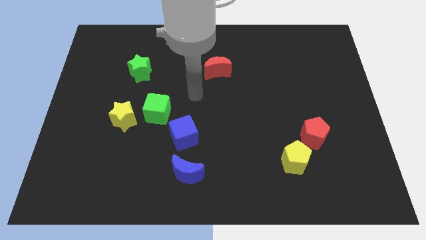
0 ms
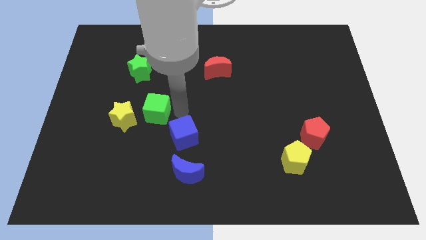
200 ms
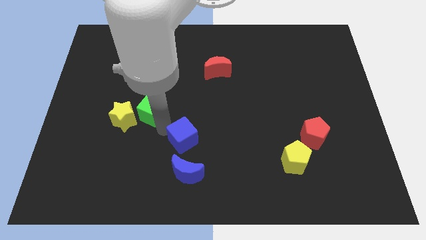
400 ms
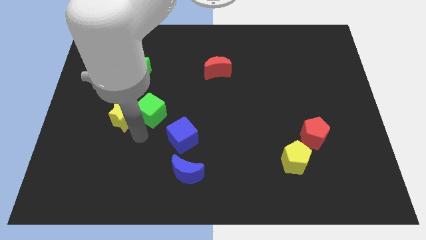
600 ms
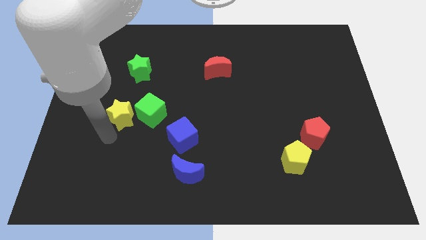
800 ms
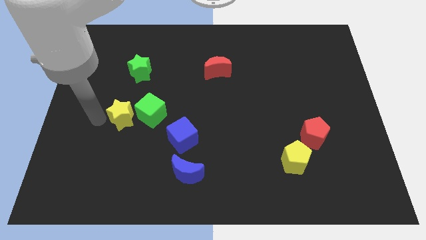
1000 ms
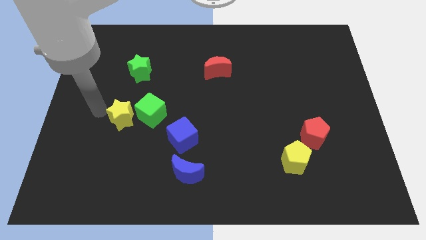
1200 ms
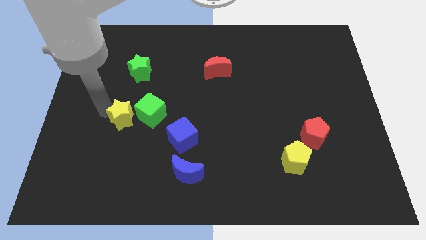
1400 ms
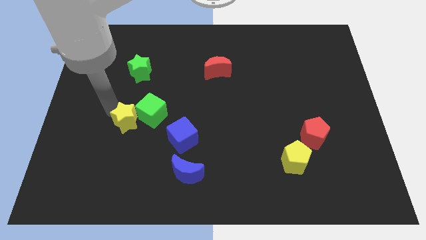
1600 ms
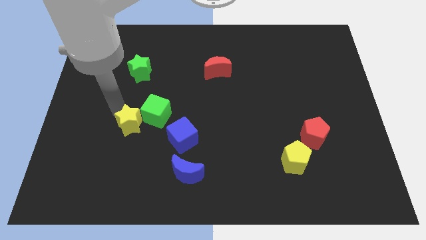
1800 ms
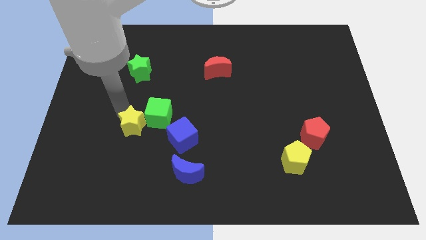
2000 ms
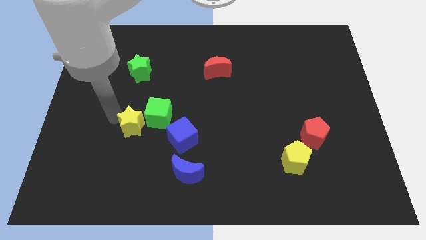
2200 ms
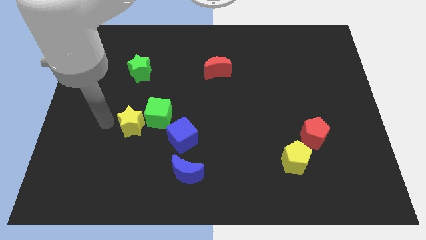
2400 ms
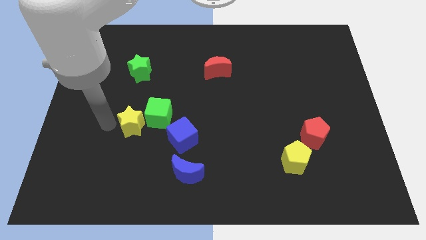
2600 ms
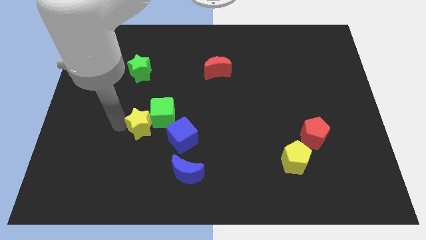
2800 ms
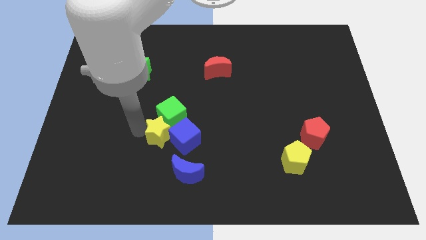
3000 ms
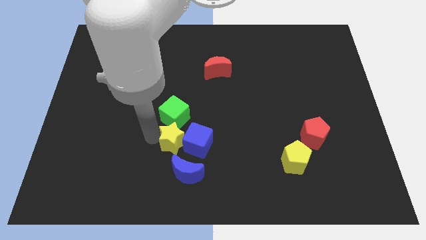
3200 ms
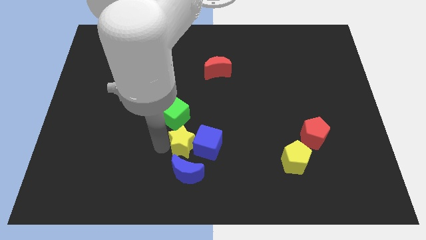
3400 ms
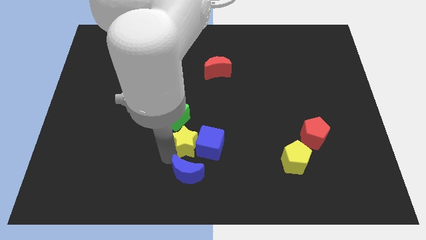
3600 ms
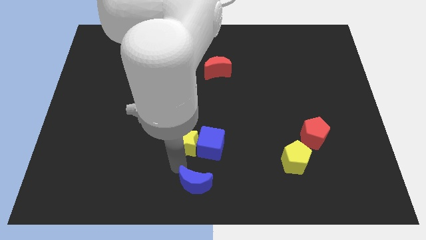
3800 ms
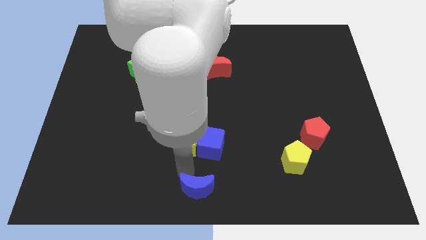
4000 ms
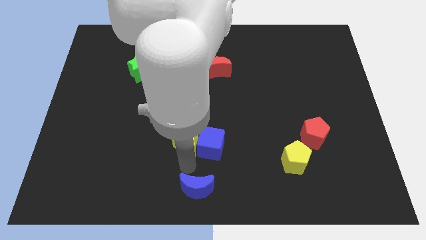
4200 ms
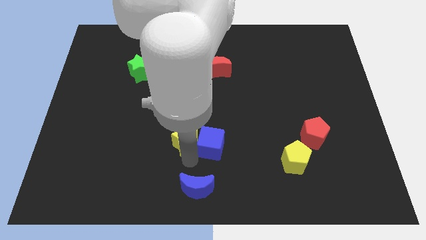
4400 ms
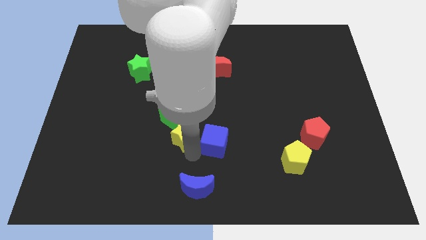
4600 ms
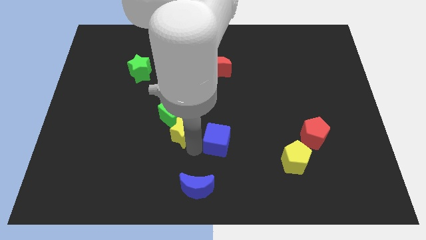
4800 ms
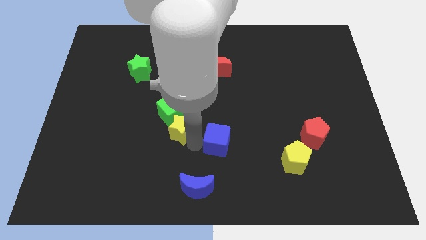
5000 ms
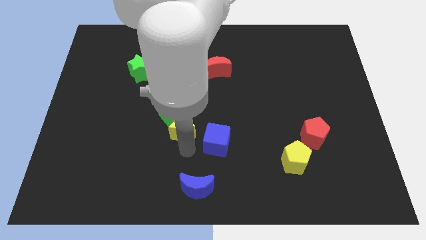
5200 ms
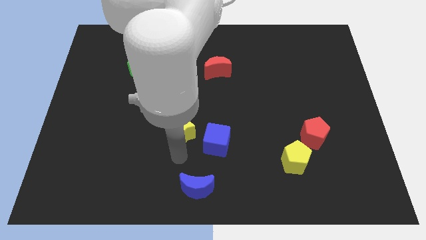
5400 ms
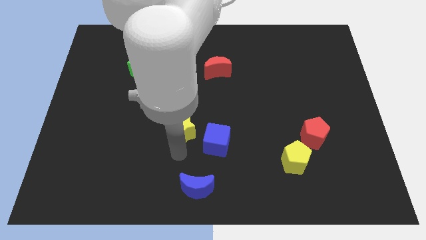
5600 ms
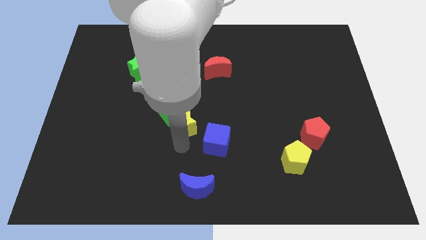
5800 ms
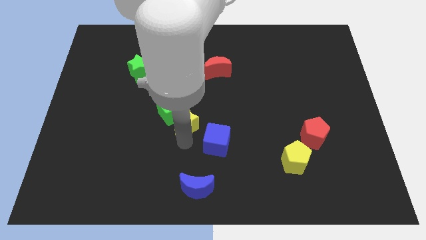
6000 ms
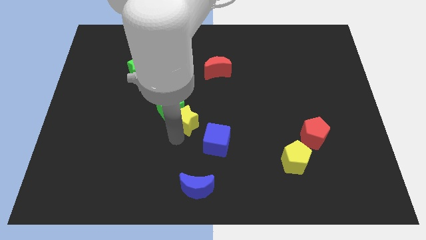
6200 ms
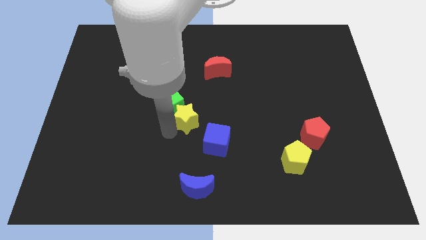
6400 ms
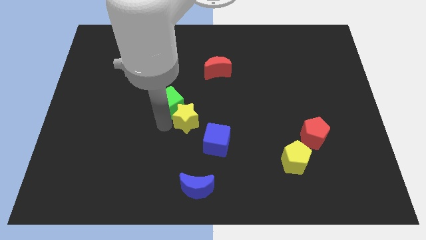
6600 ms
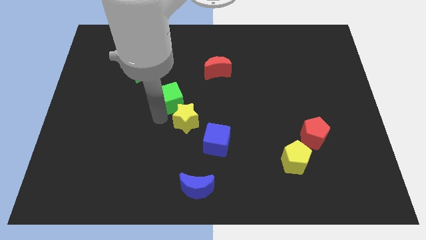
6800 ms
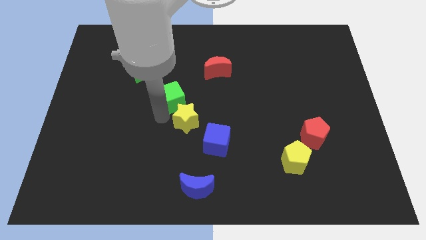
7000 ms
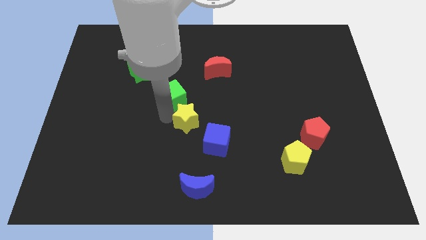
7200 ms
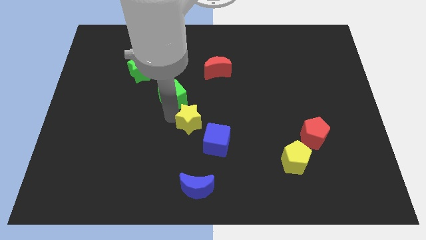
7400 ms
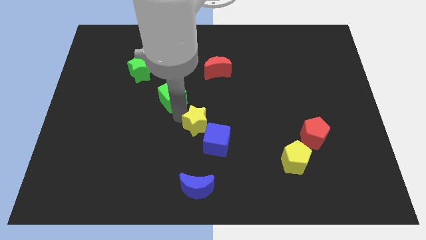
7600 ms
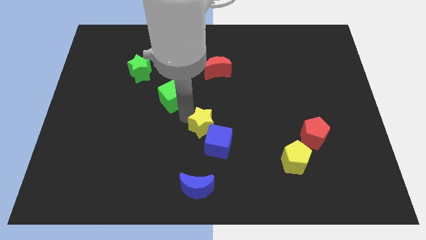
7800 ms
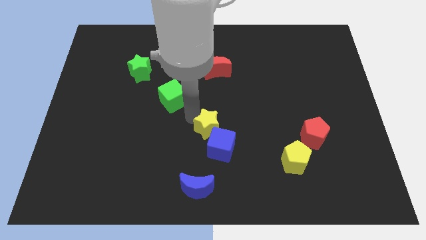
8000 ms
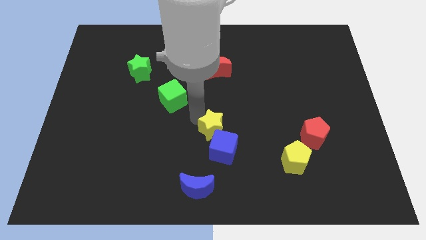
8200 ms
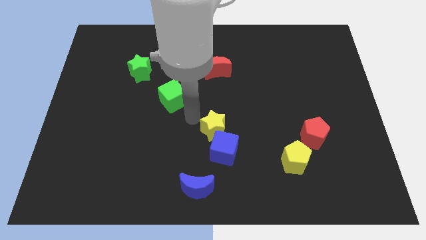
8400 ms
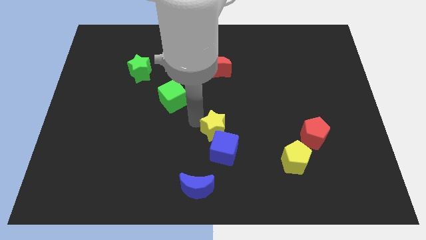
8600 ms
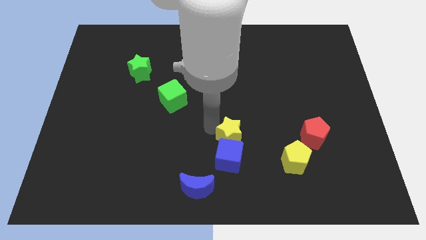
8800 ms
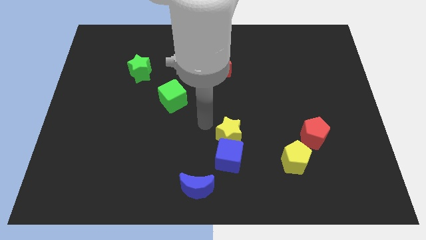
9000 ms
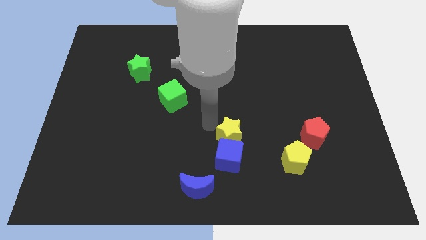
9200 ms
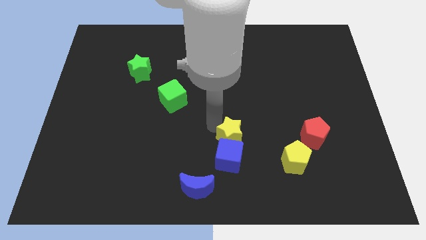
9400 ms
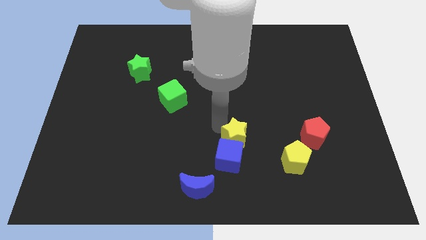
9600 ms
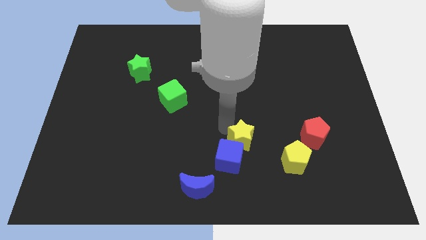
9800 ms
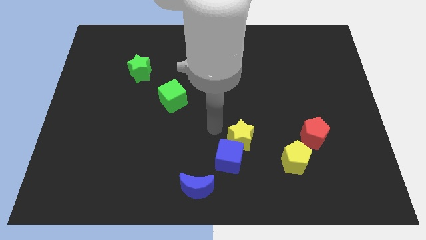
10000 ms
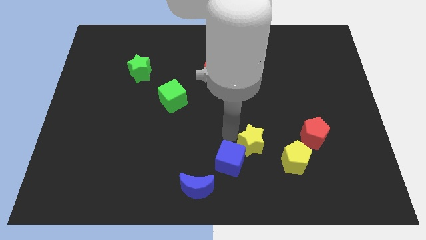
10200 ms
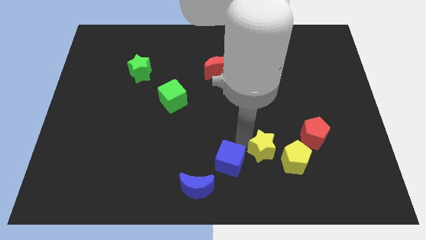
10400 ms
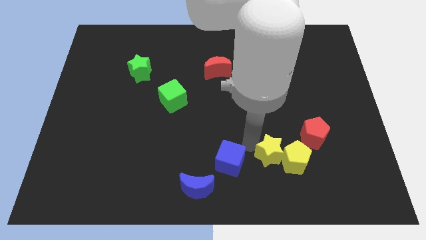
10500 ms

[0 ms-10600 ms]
slide the yellow star next to the yellow pentagon

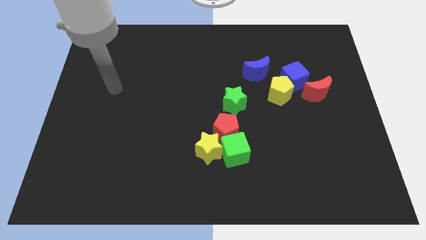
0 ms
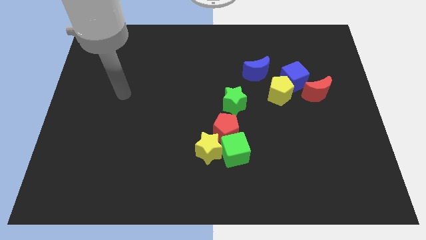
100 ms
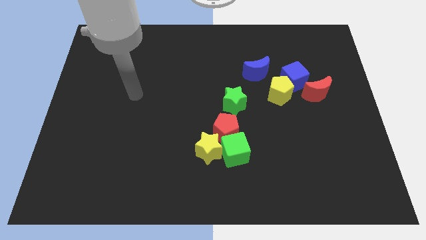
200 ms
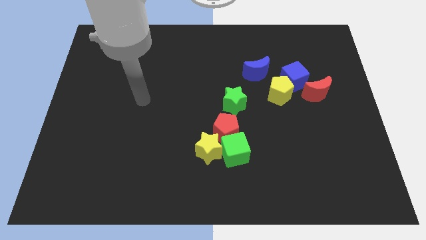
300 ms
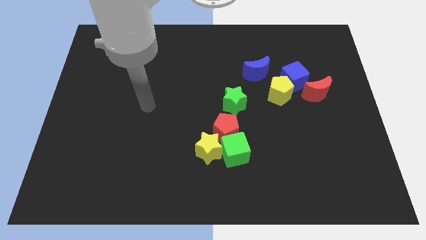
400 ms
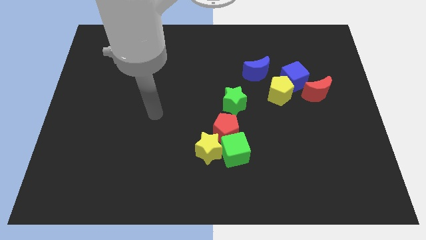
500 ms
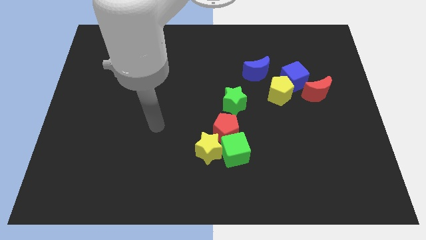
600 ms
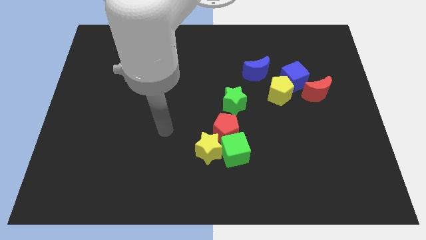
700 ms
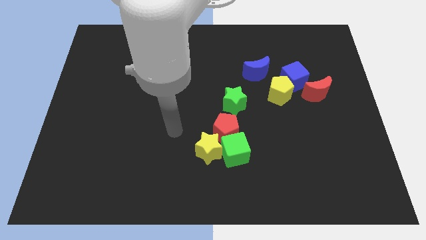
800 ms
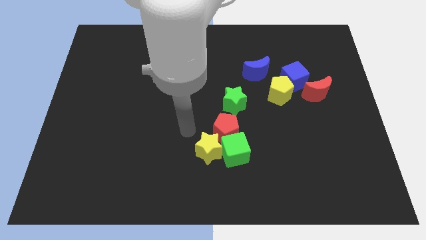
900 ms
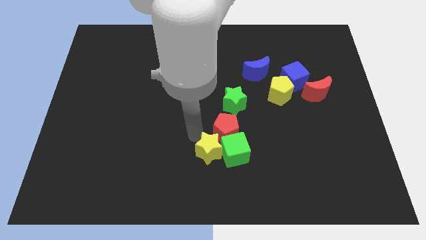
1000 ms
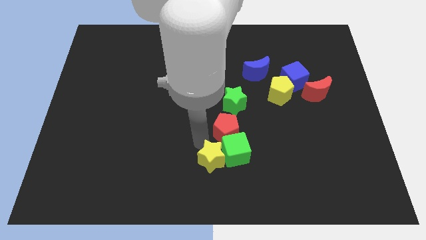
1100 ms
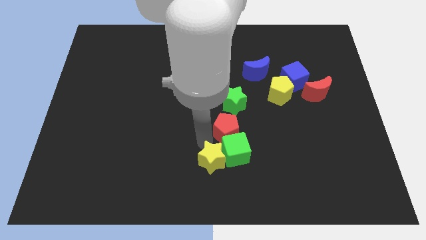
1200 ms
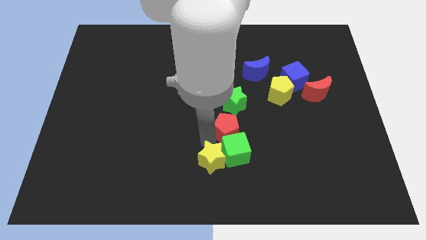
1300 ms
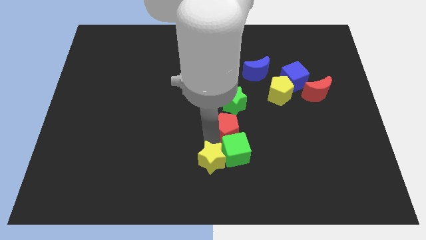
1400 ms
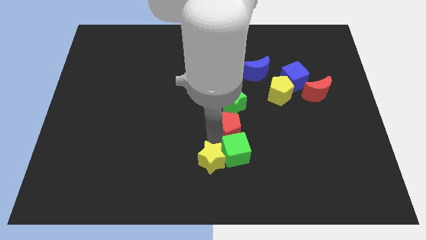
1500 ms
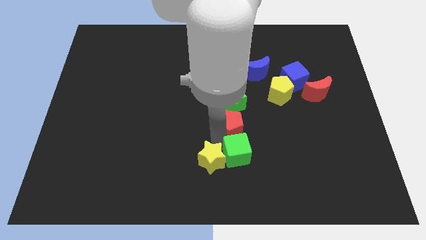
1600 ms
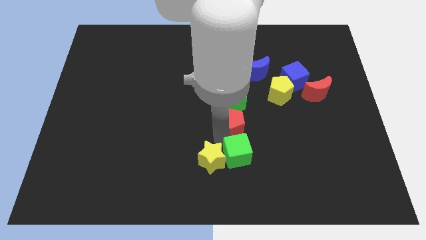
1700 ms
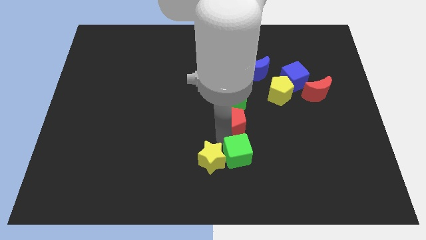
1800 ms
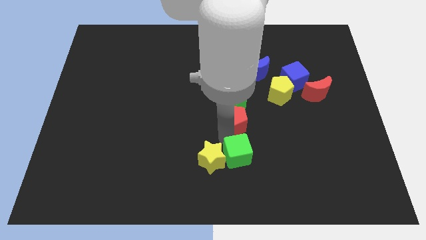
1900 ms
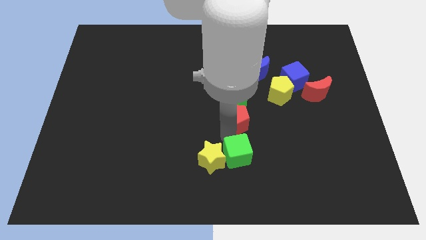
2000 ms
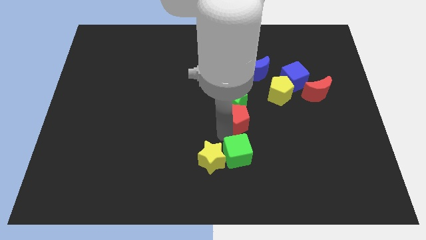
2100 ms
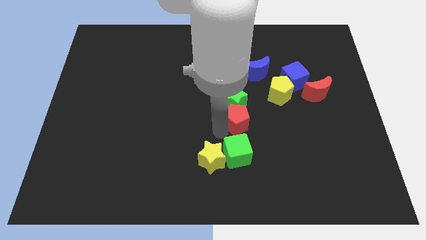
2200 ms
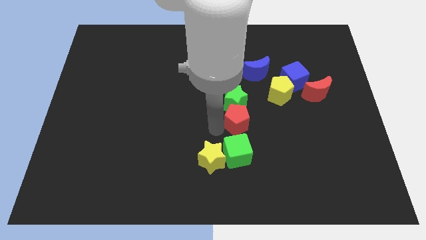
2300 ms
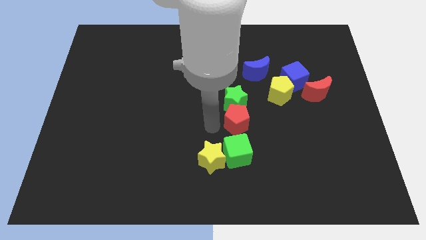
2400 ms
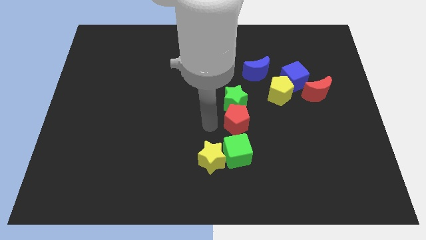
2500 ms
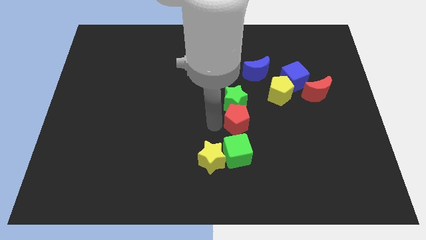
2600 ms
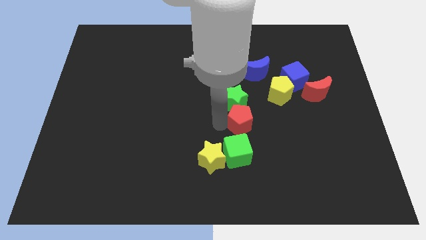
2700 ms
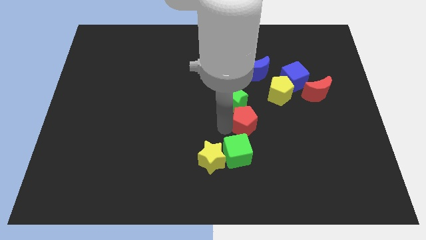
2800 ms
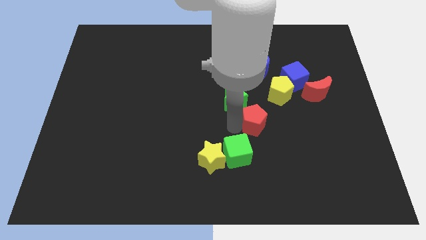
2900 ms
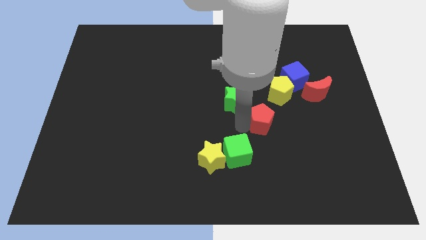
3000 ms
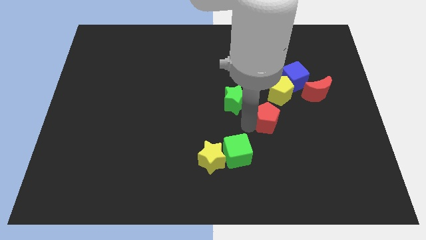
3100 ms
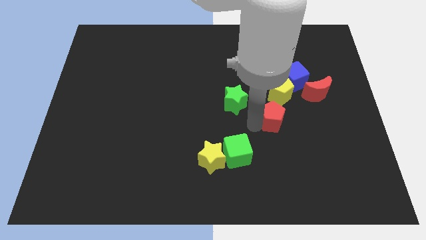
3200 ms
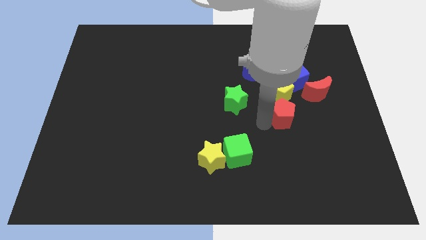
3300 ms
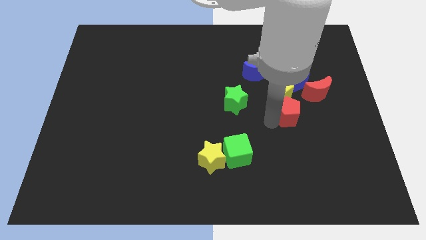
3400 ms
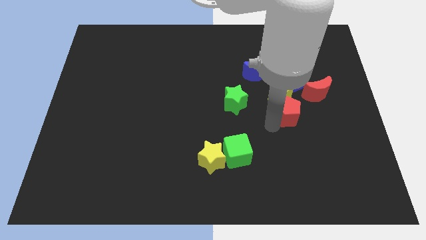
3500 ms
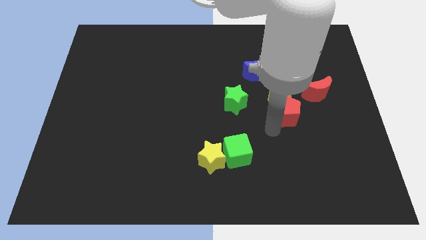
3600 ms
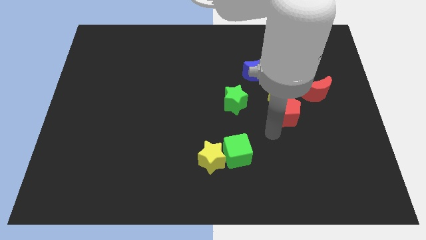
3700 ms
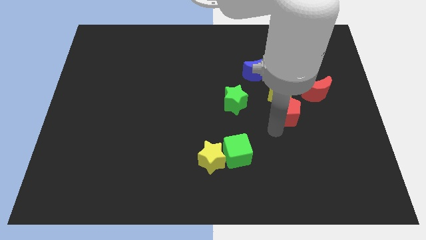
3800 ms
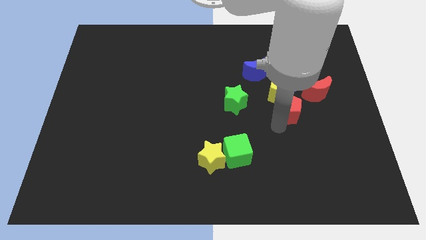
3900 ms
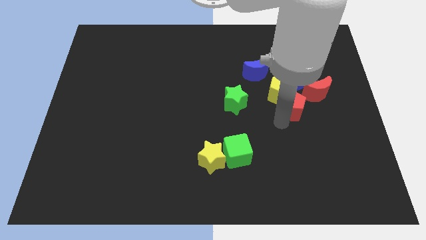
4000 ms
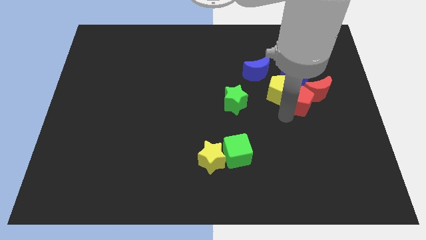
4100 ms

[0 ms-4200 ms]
put the red pentagon to the red moon
